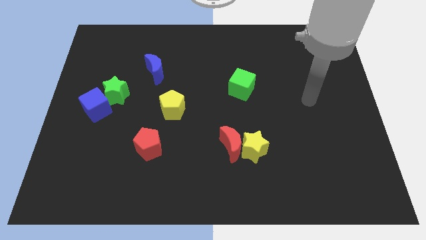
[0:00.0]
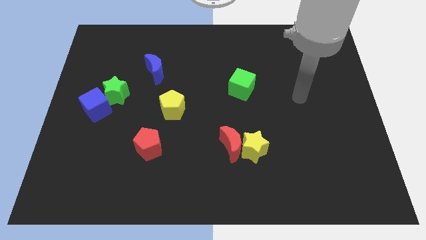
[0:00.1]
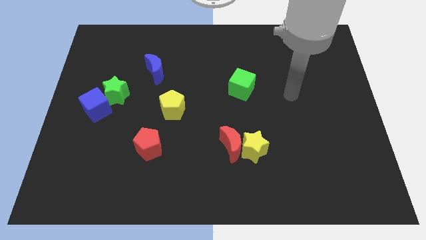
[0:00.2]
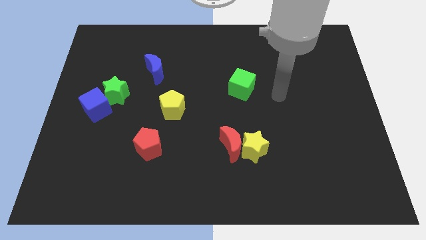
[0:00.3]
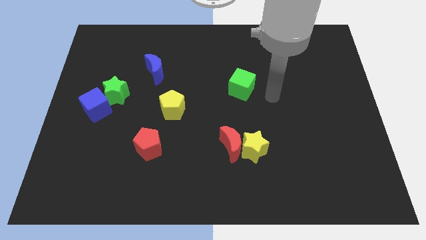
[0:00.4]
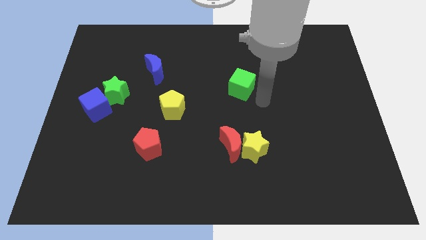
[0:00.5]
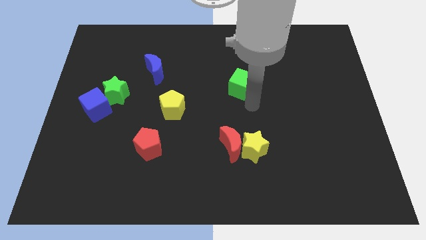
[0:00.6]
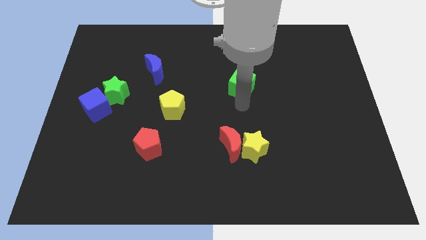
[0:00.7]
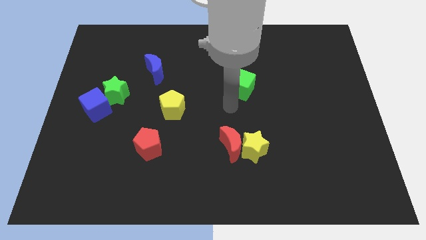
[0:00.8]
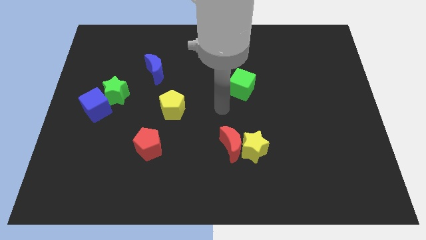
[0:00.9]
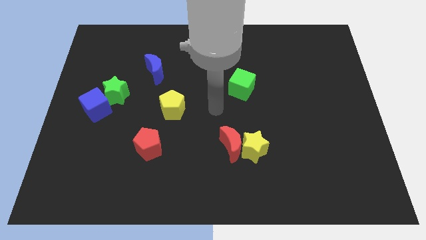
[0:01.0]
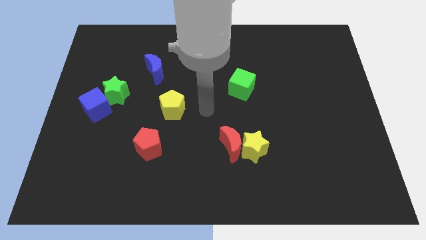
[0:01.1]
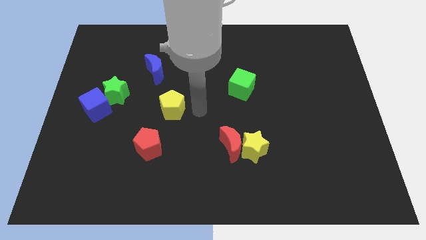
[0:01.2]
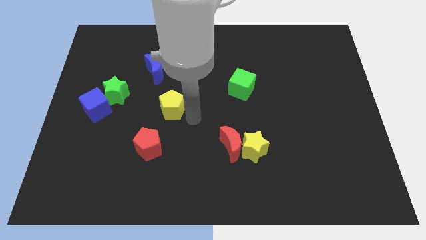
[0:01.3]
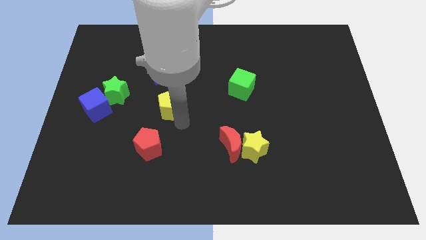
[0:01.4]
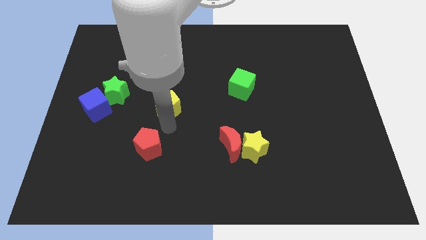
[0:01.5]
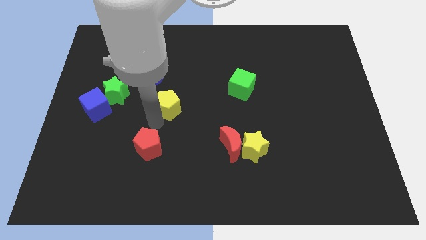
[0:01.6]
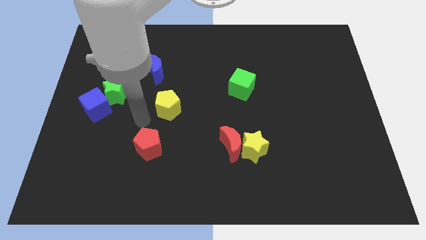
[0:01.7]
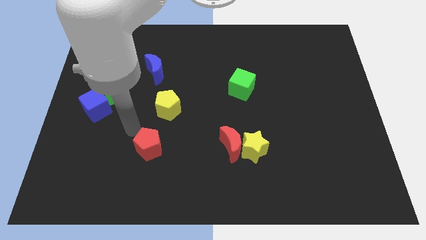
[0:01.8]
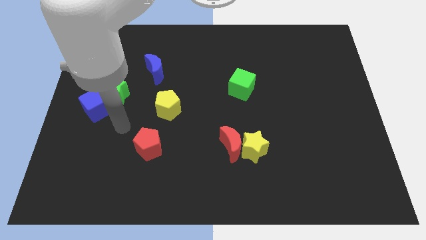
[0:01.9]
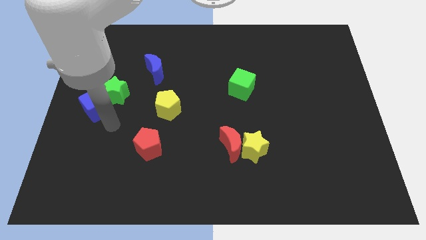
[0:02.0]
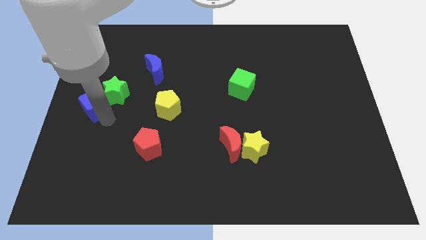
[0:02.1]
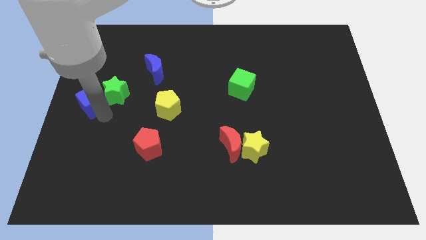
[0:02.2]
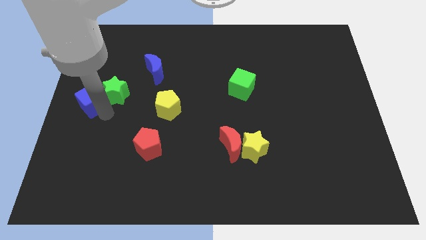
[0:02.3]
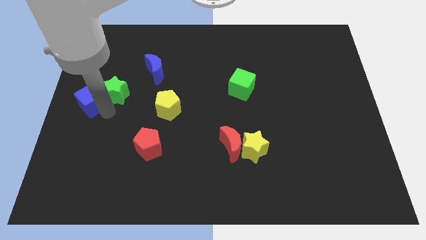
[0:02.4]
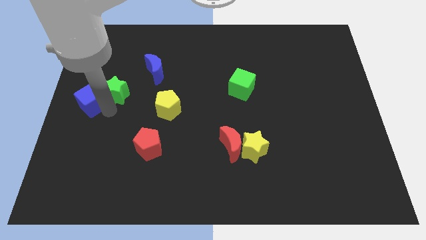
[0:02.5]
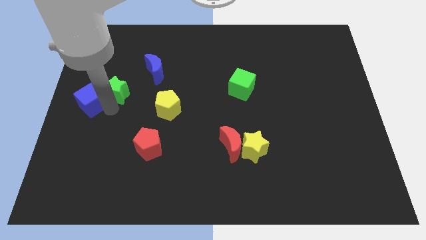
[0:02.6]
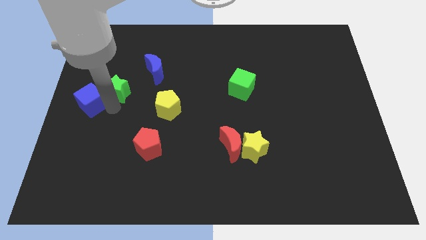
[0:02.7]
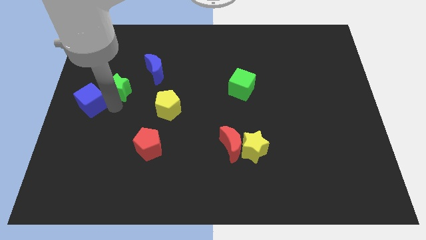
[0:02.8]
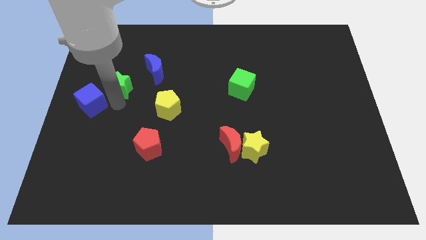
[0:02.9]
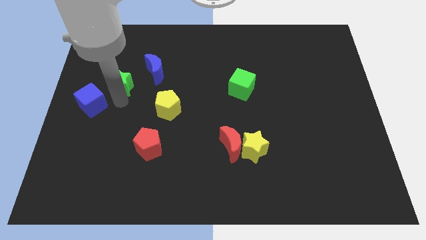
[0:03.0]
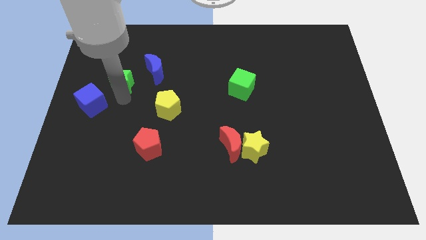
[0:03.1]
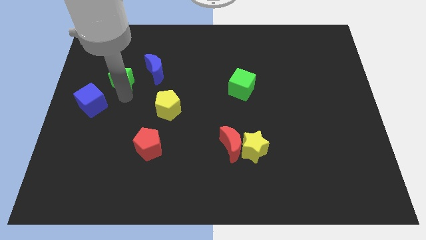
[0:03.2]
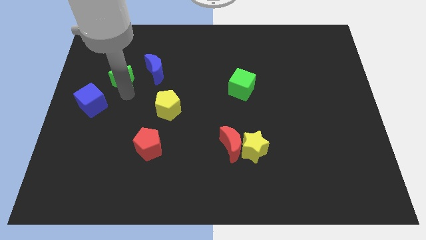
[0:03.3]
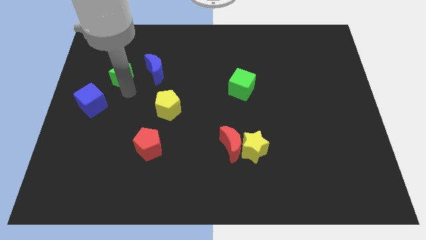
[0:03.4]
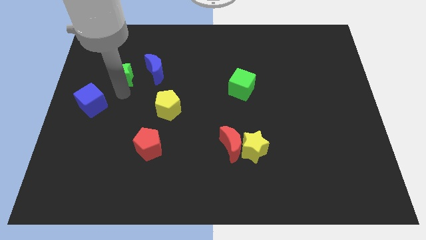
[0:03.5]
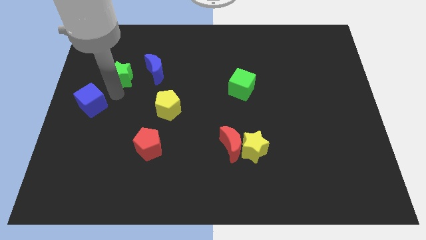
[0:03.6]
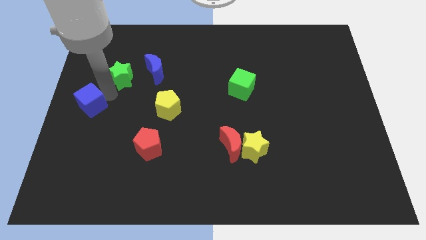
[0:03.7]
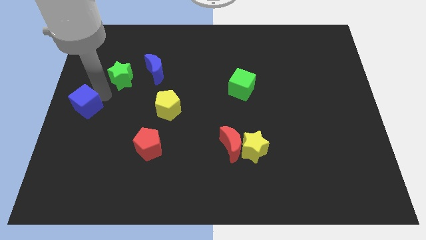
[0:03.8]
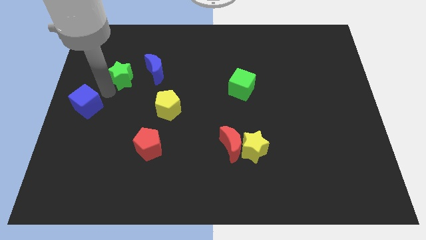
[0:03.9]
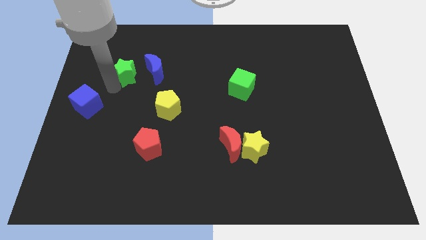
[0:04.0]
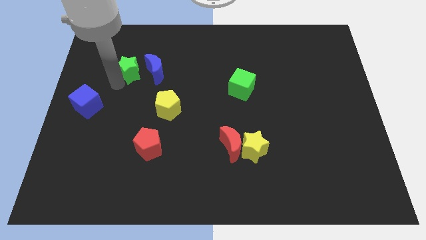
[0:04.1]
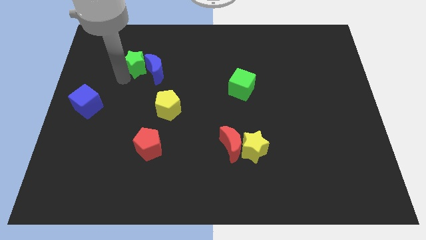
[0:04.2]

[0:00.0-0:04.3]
slightly move the green star upwards and to the right

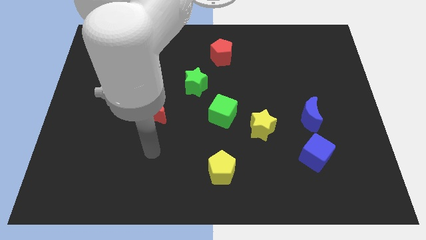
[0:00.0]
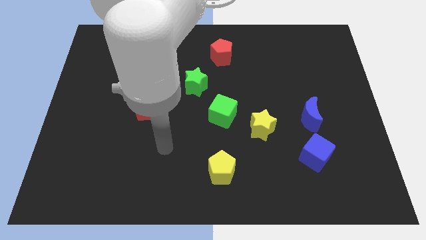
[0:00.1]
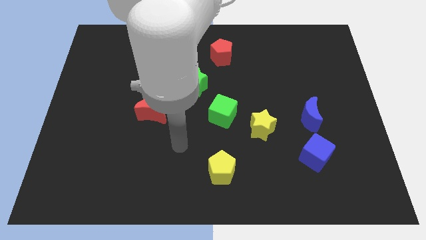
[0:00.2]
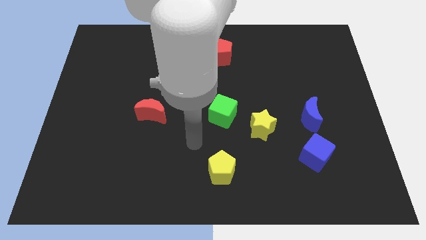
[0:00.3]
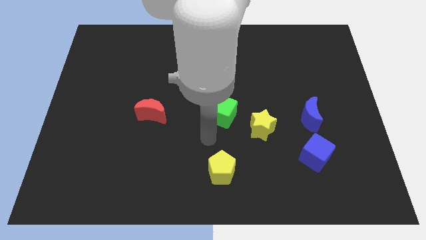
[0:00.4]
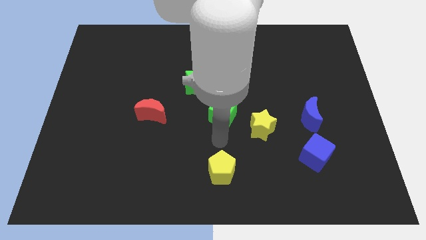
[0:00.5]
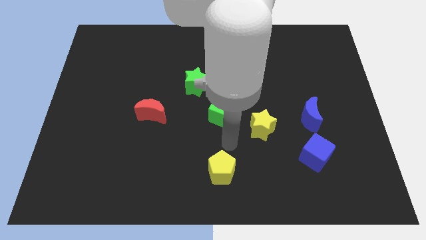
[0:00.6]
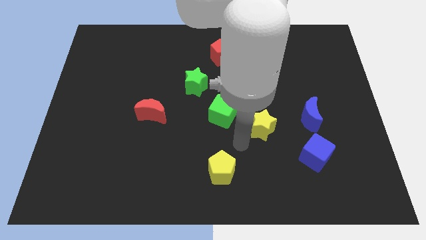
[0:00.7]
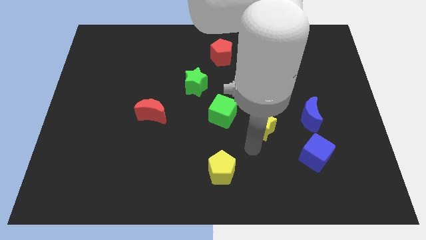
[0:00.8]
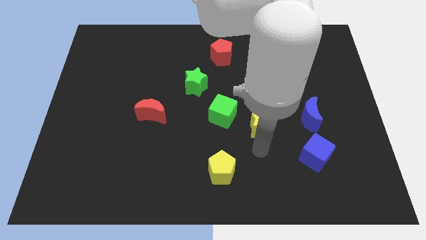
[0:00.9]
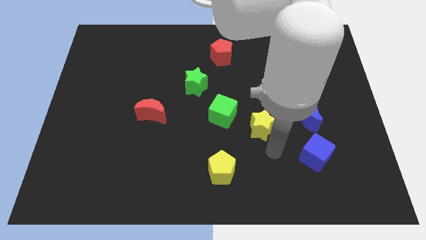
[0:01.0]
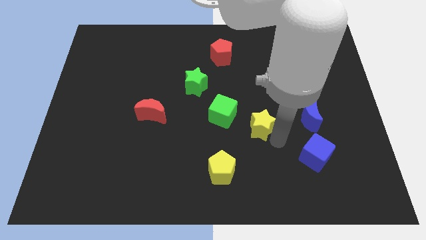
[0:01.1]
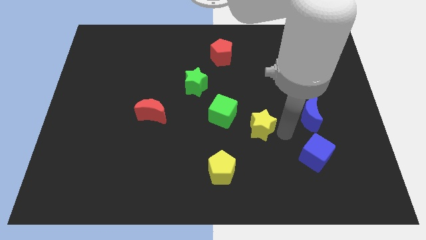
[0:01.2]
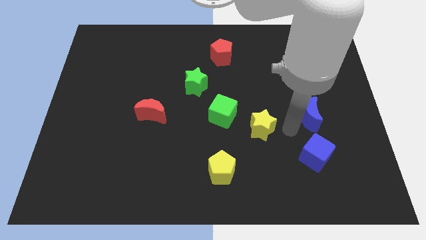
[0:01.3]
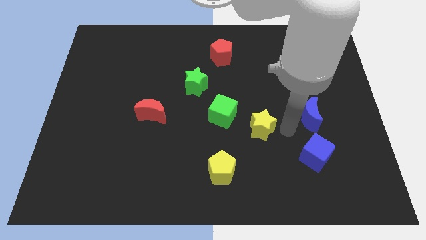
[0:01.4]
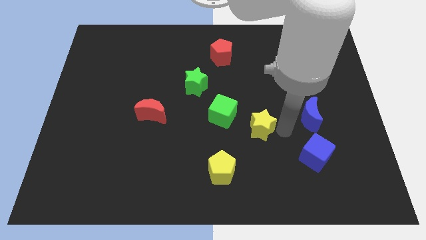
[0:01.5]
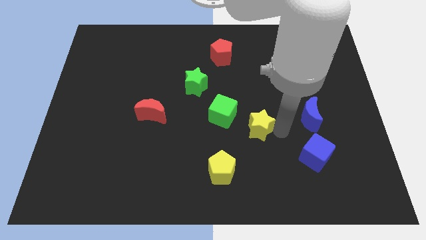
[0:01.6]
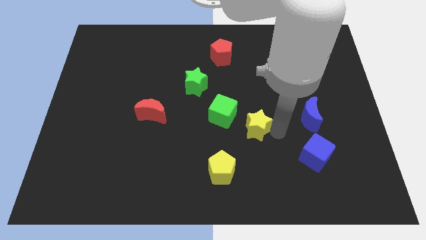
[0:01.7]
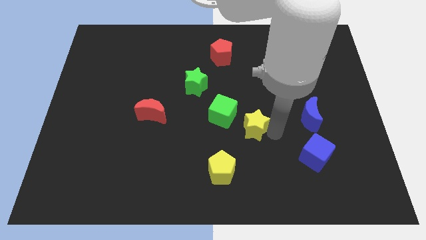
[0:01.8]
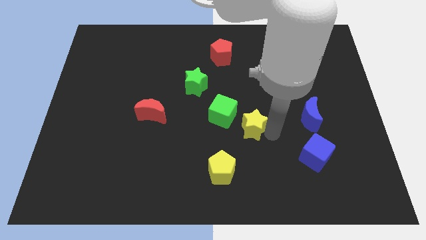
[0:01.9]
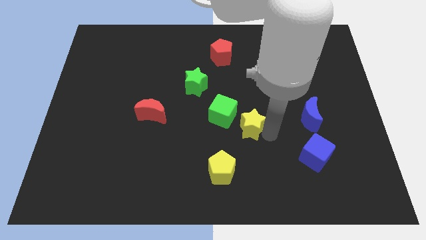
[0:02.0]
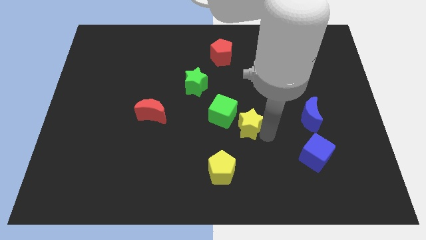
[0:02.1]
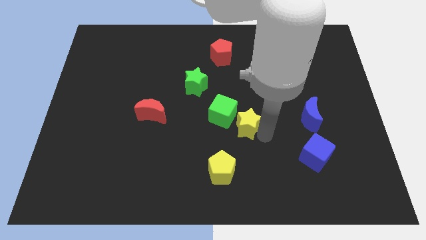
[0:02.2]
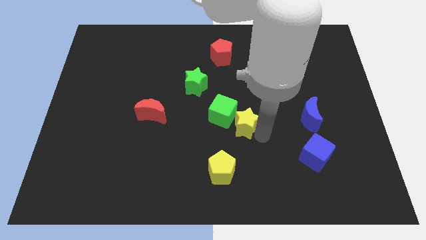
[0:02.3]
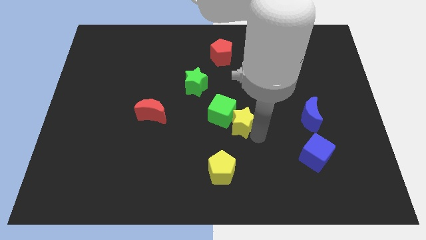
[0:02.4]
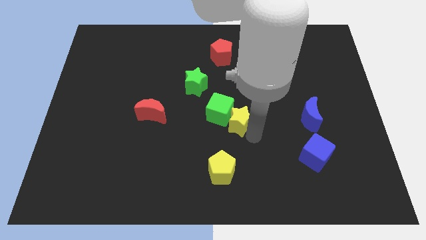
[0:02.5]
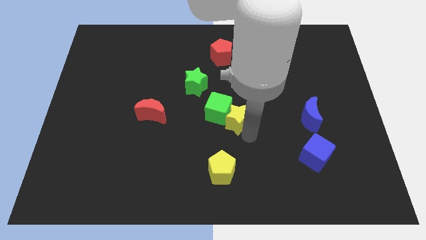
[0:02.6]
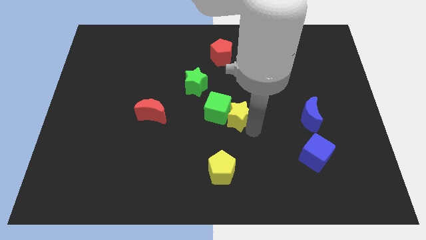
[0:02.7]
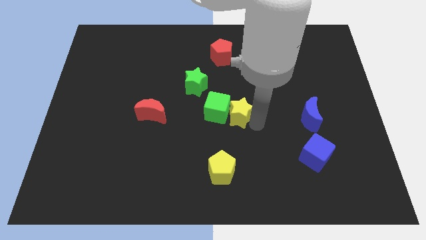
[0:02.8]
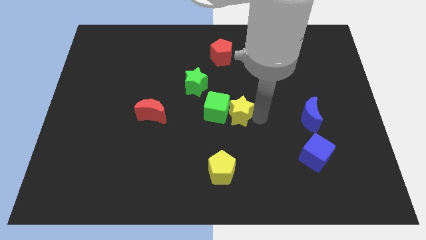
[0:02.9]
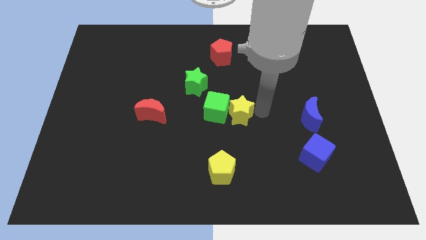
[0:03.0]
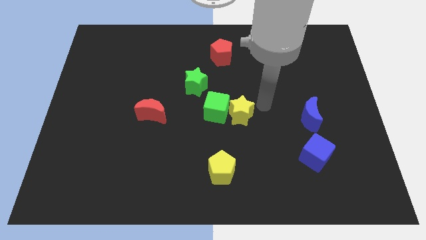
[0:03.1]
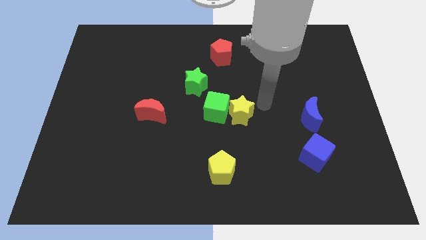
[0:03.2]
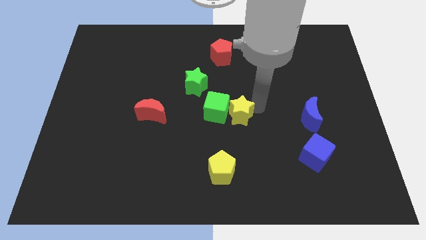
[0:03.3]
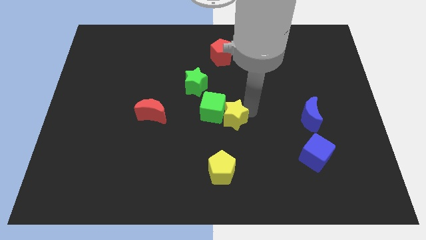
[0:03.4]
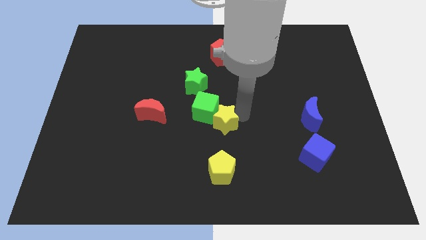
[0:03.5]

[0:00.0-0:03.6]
move the yellow star to the left slightly
